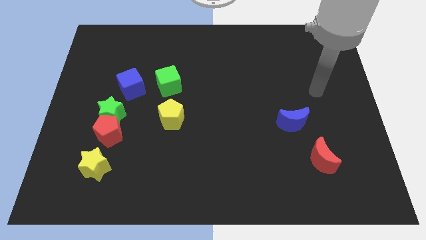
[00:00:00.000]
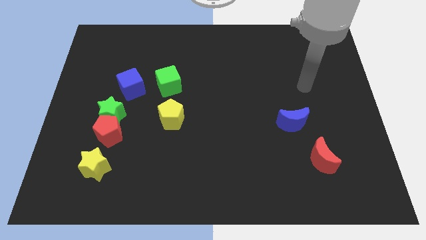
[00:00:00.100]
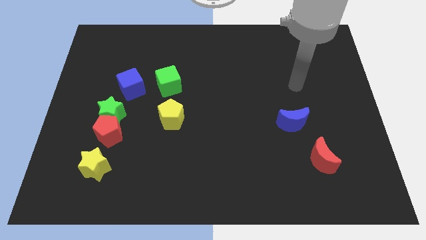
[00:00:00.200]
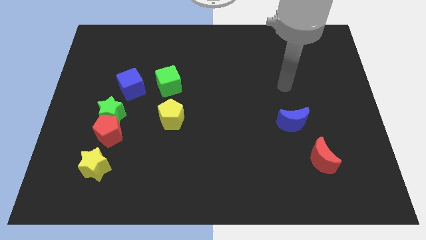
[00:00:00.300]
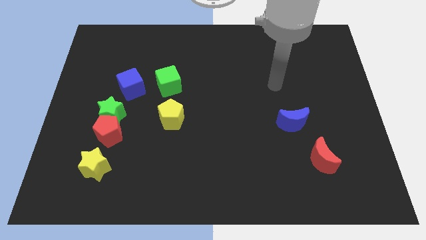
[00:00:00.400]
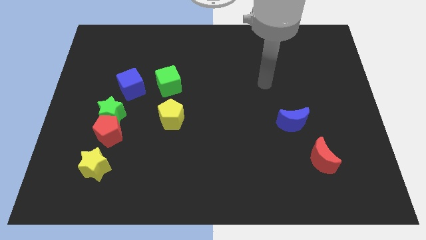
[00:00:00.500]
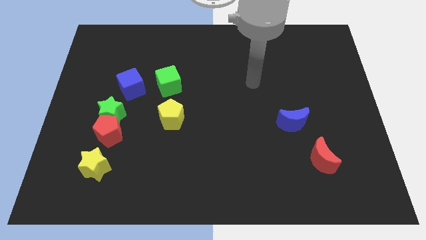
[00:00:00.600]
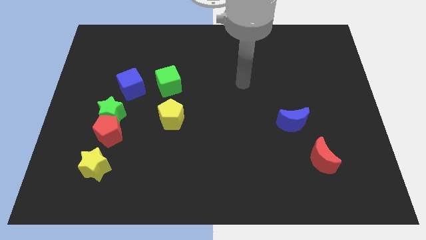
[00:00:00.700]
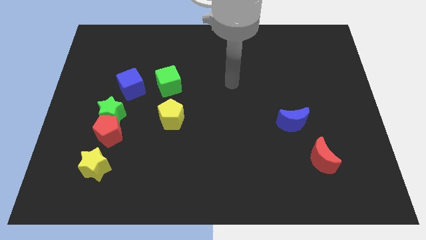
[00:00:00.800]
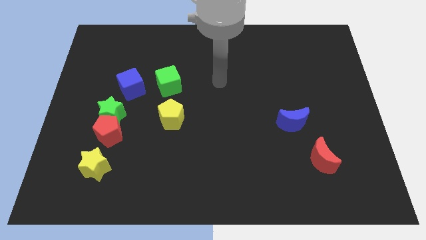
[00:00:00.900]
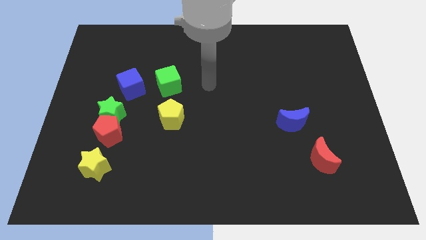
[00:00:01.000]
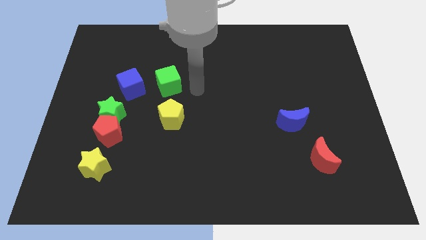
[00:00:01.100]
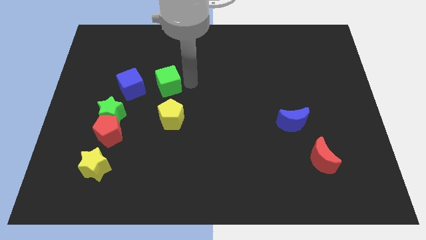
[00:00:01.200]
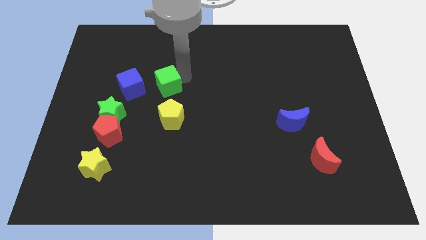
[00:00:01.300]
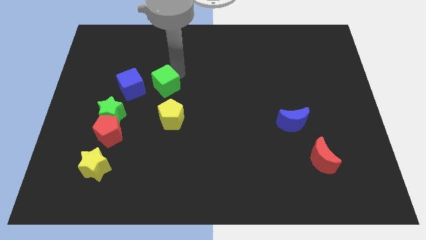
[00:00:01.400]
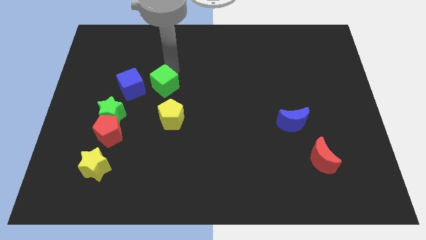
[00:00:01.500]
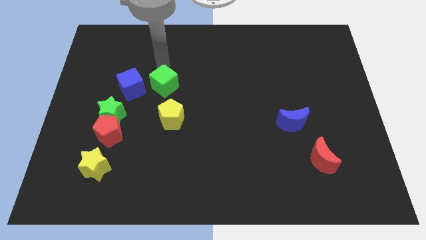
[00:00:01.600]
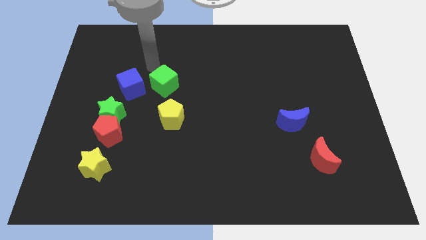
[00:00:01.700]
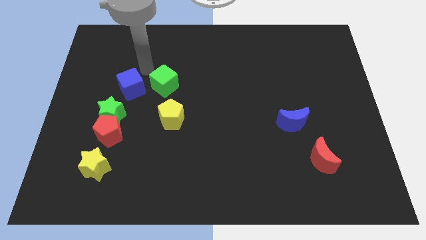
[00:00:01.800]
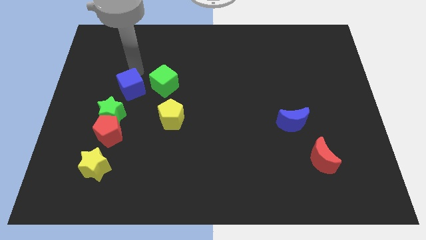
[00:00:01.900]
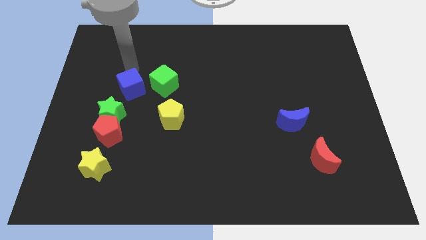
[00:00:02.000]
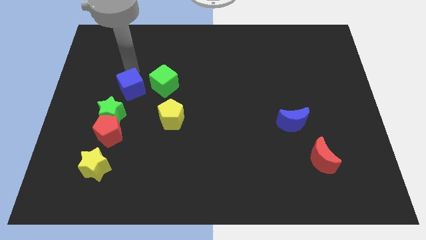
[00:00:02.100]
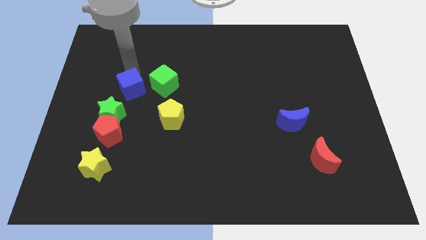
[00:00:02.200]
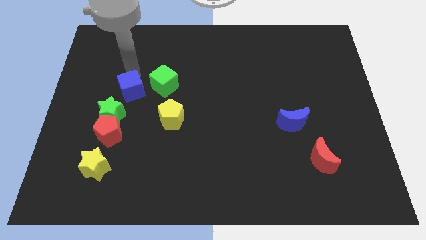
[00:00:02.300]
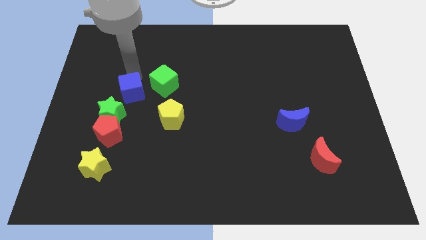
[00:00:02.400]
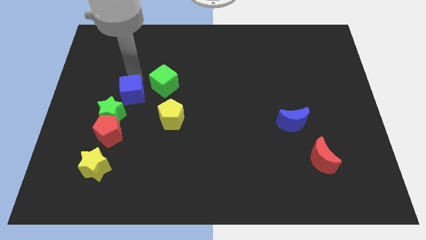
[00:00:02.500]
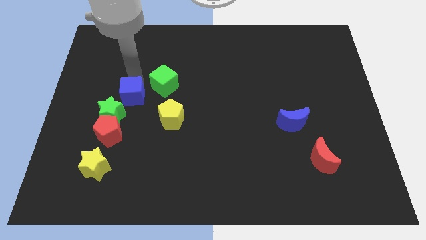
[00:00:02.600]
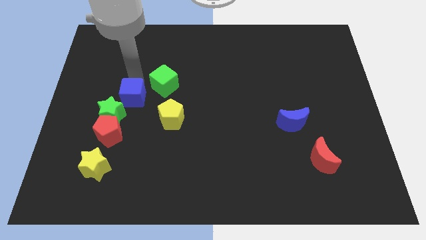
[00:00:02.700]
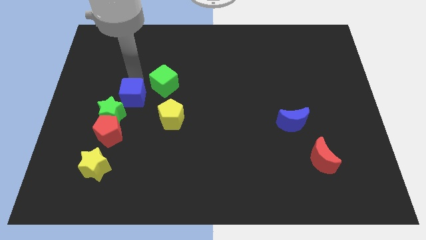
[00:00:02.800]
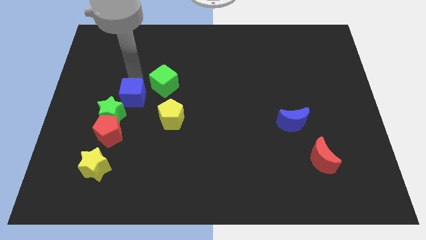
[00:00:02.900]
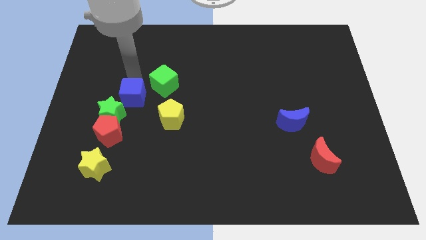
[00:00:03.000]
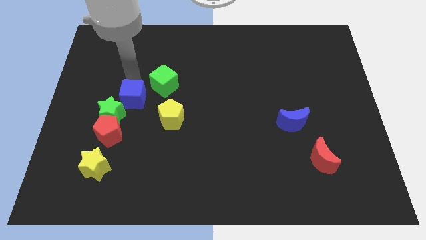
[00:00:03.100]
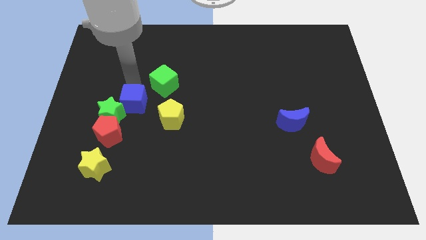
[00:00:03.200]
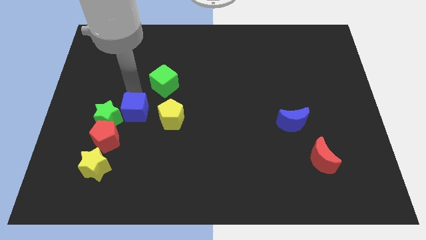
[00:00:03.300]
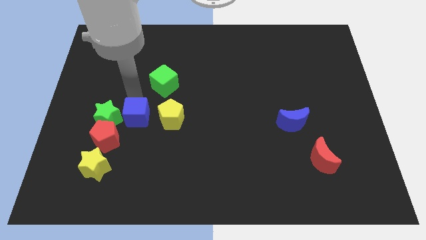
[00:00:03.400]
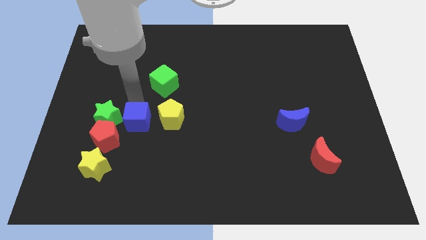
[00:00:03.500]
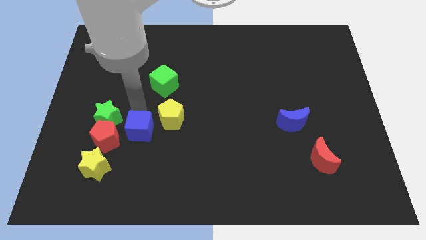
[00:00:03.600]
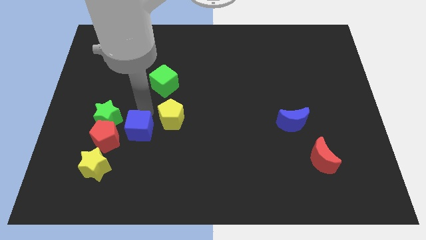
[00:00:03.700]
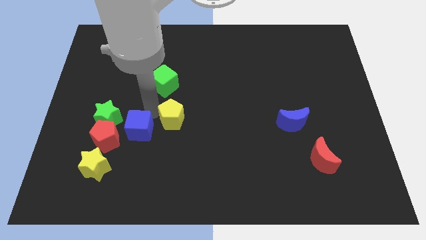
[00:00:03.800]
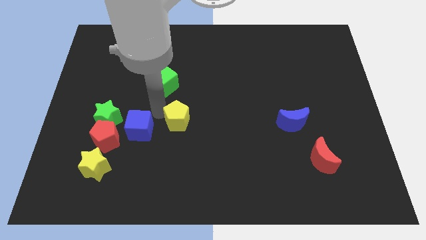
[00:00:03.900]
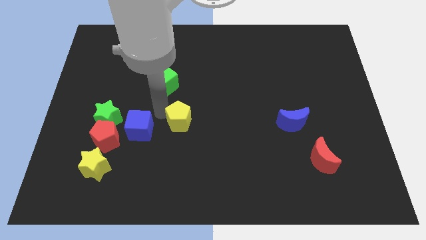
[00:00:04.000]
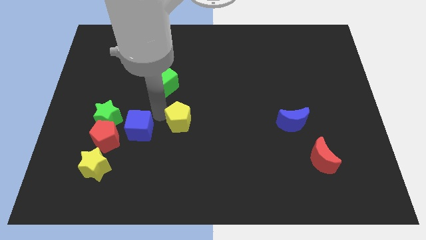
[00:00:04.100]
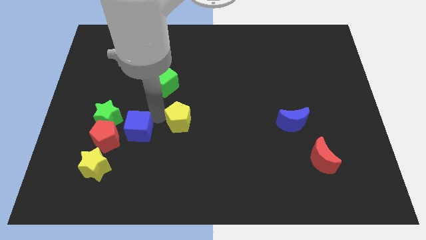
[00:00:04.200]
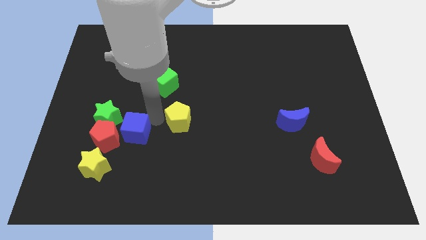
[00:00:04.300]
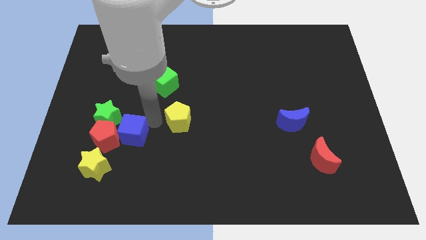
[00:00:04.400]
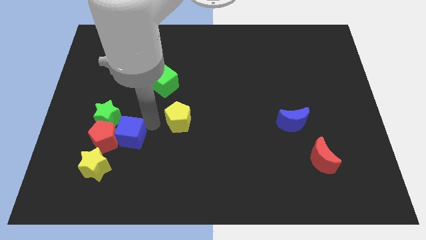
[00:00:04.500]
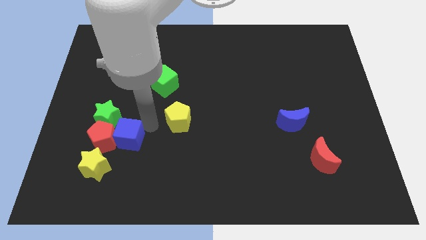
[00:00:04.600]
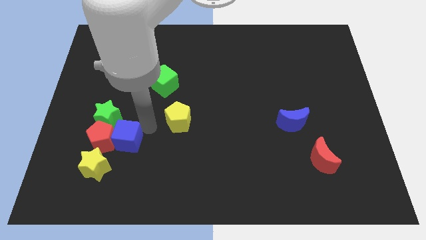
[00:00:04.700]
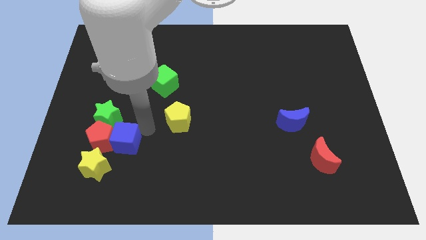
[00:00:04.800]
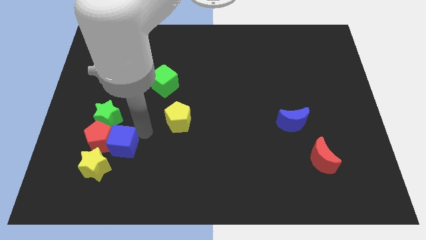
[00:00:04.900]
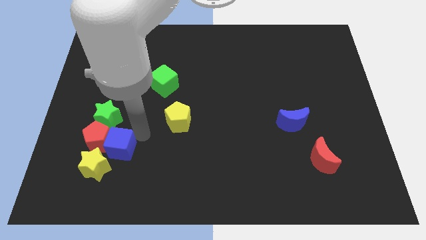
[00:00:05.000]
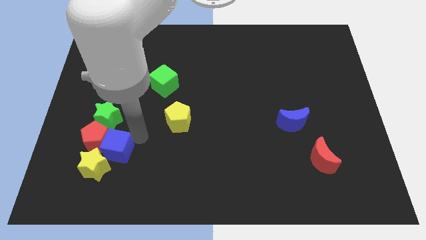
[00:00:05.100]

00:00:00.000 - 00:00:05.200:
move the blue cube next to the yellow star

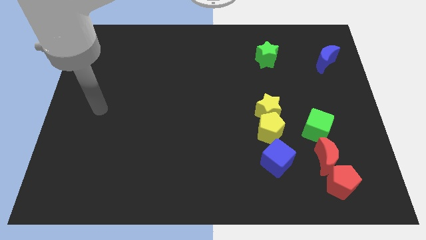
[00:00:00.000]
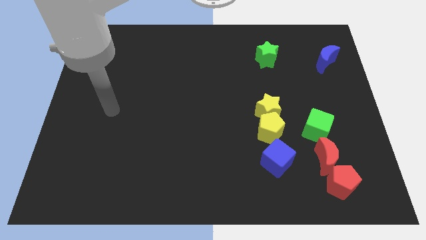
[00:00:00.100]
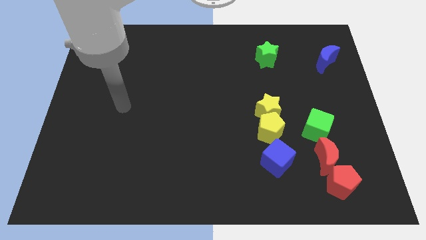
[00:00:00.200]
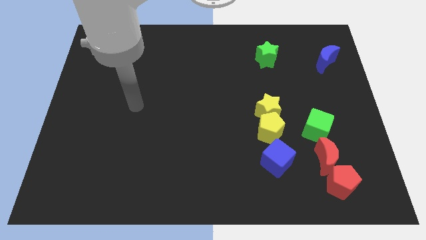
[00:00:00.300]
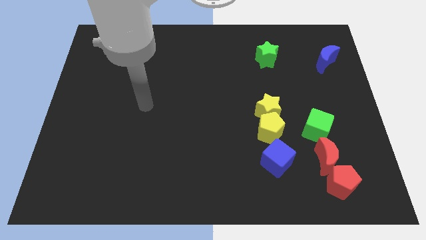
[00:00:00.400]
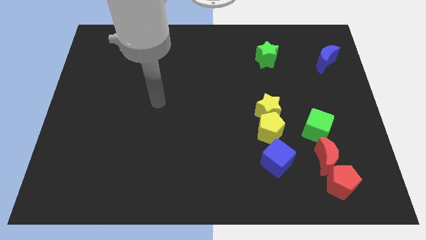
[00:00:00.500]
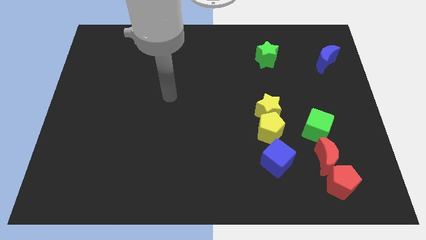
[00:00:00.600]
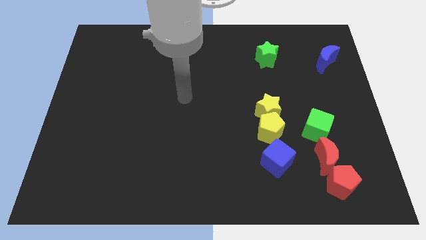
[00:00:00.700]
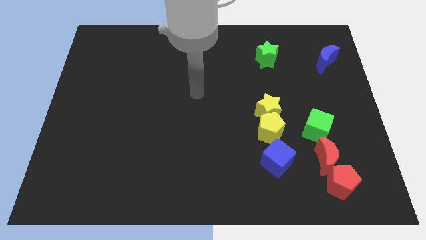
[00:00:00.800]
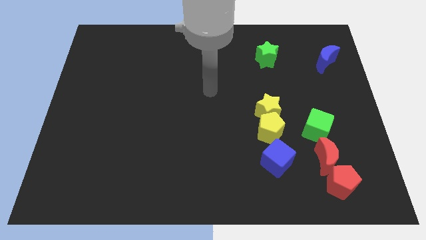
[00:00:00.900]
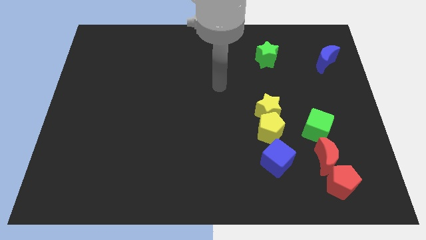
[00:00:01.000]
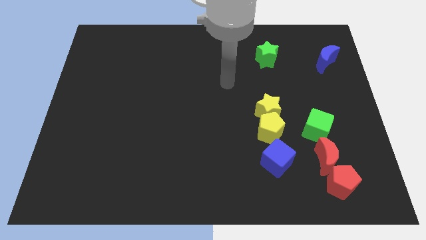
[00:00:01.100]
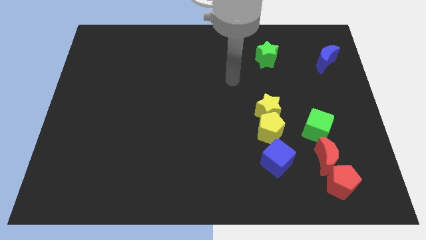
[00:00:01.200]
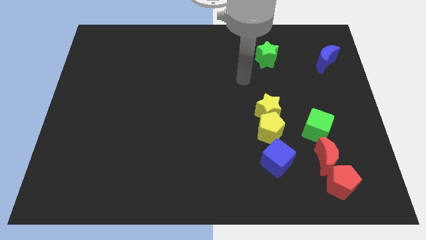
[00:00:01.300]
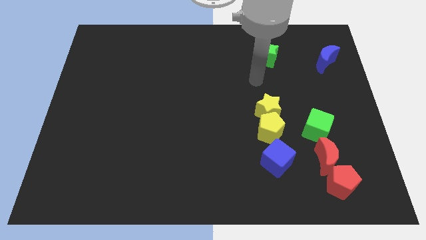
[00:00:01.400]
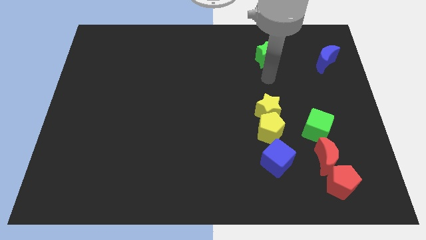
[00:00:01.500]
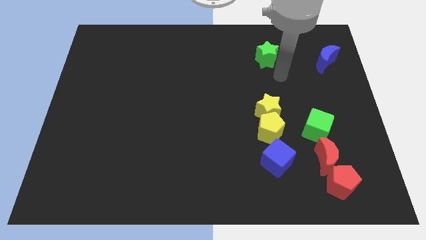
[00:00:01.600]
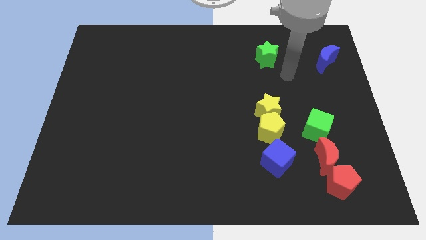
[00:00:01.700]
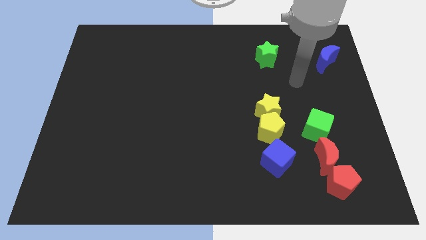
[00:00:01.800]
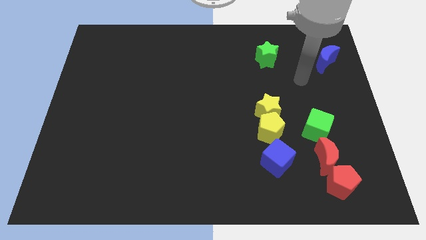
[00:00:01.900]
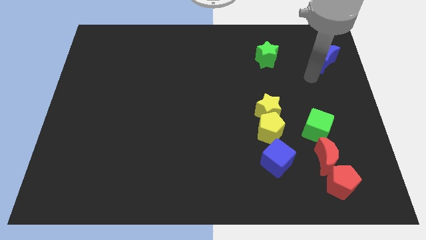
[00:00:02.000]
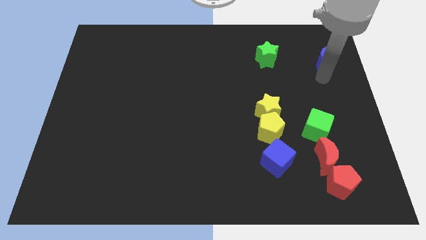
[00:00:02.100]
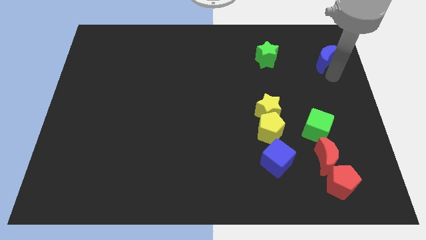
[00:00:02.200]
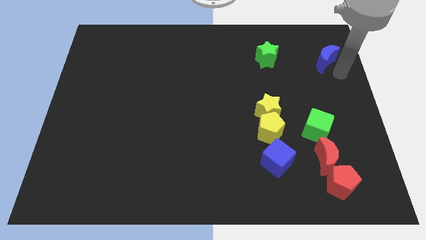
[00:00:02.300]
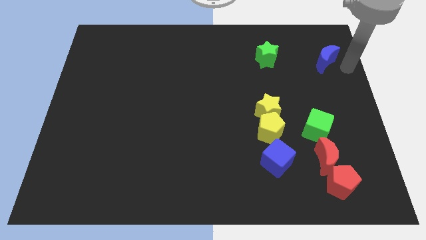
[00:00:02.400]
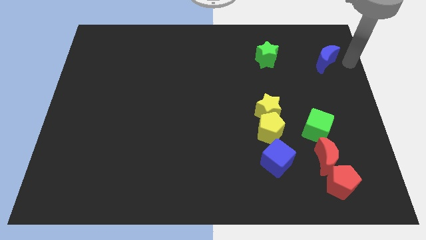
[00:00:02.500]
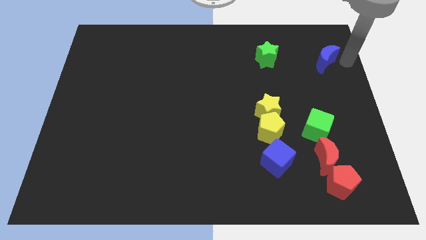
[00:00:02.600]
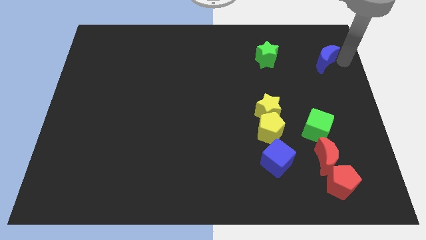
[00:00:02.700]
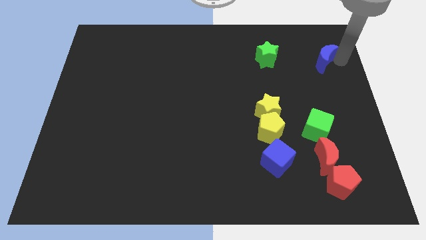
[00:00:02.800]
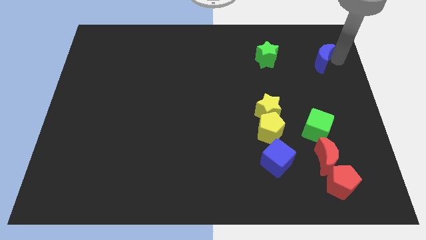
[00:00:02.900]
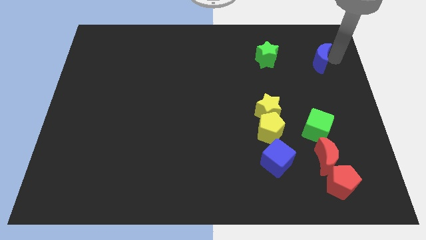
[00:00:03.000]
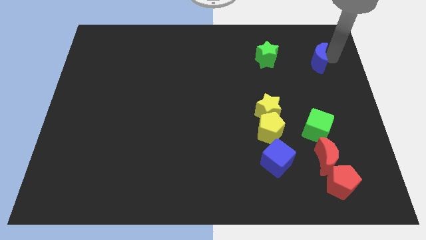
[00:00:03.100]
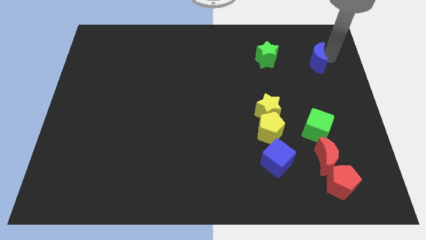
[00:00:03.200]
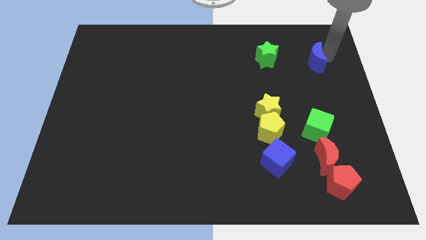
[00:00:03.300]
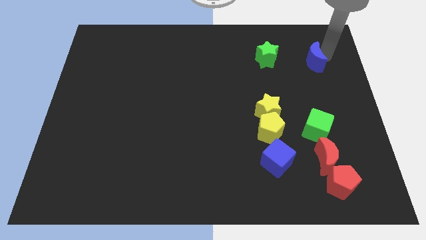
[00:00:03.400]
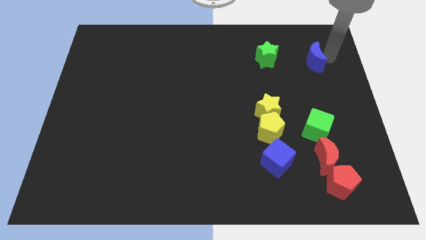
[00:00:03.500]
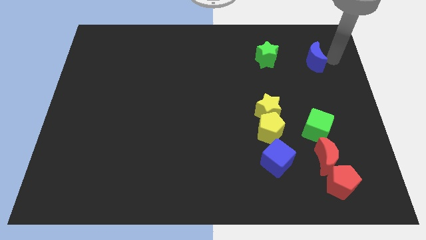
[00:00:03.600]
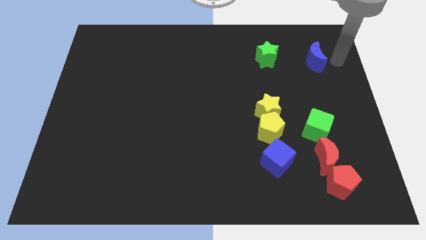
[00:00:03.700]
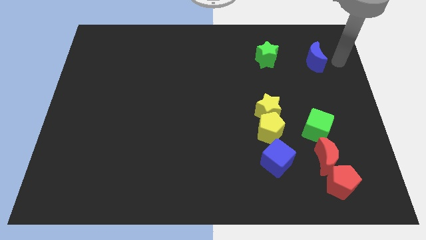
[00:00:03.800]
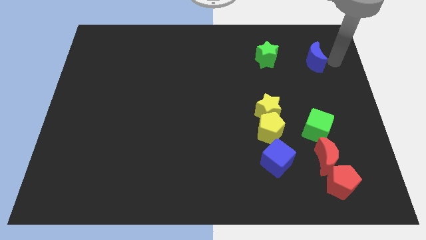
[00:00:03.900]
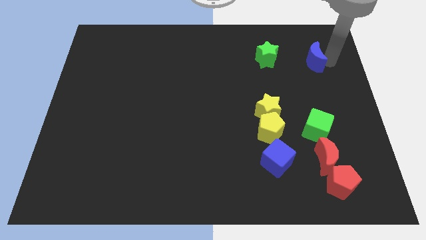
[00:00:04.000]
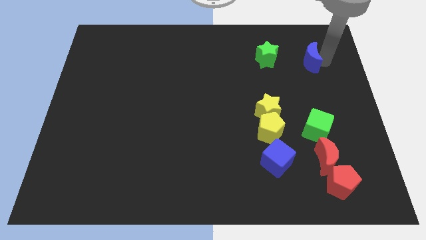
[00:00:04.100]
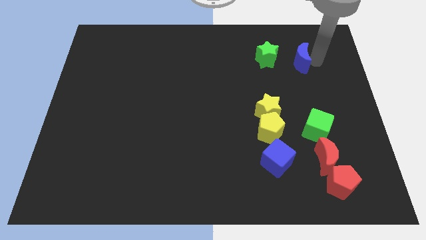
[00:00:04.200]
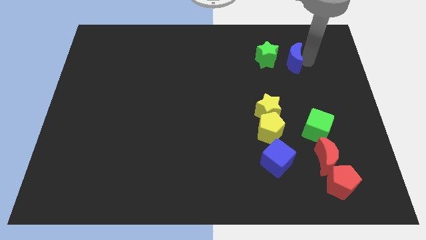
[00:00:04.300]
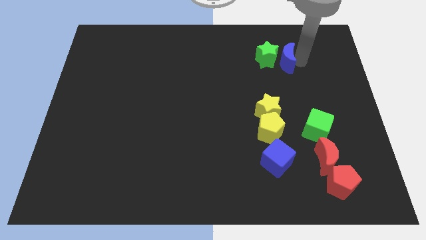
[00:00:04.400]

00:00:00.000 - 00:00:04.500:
slide the blue moon next to the green star
